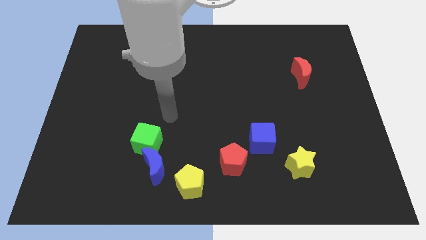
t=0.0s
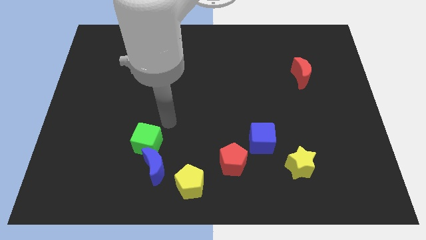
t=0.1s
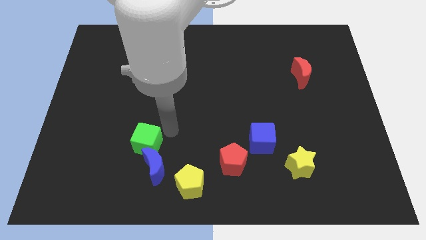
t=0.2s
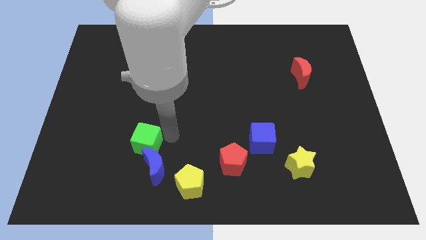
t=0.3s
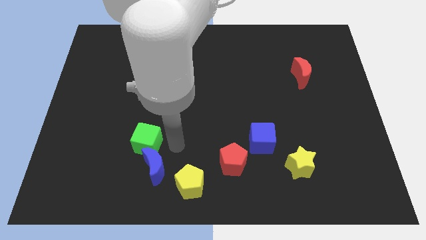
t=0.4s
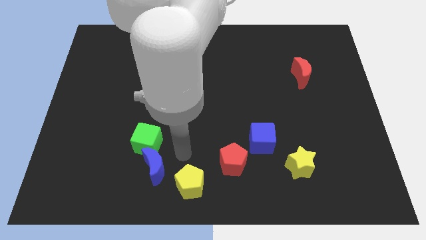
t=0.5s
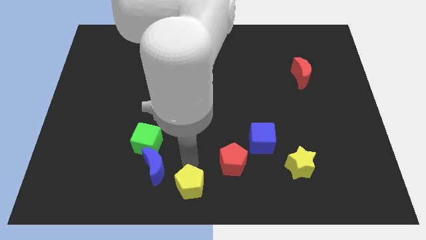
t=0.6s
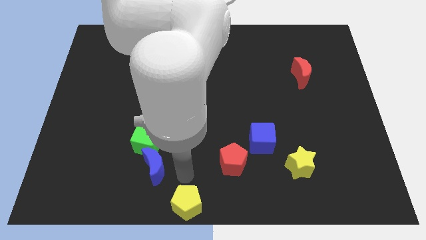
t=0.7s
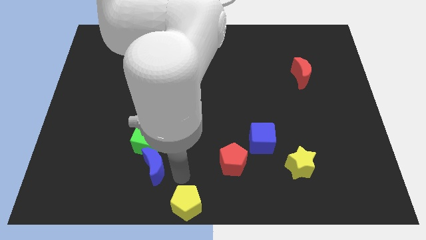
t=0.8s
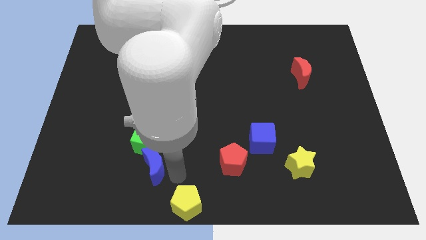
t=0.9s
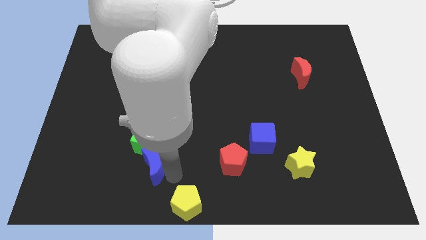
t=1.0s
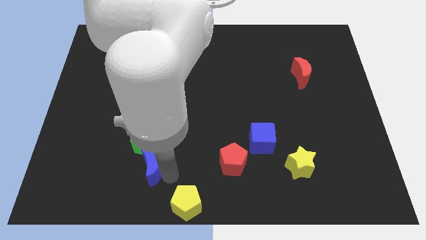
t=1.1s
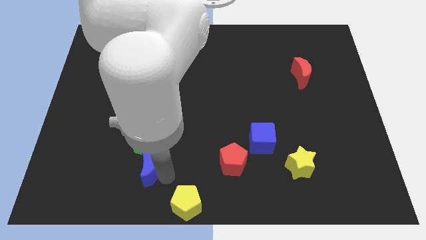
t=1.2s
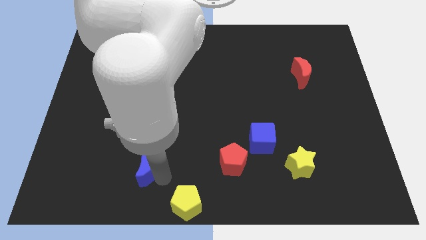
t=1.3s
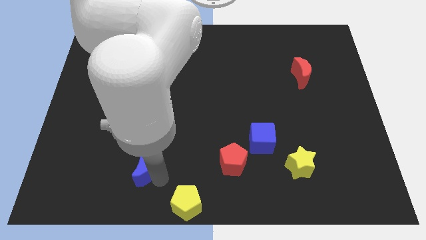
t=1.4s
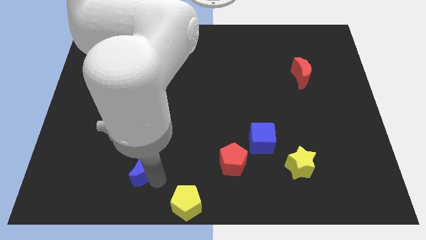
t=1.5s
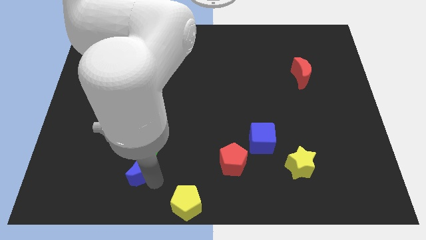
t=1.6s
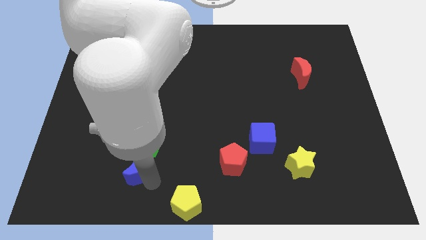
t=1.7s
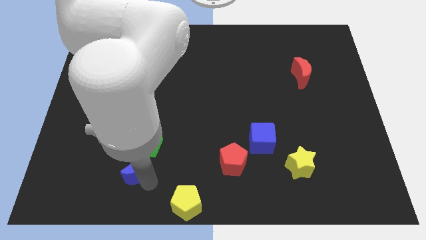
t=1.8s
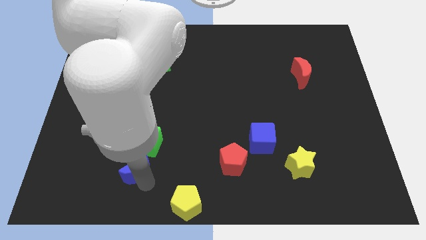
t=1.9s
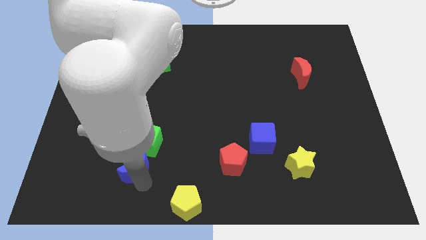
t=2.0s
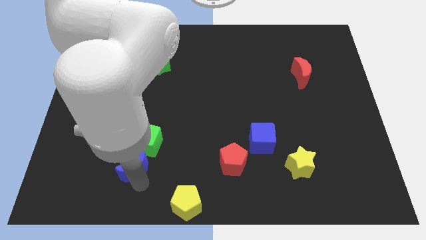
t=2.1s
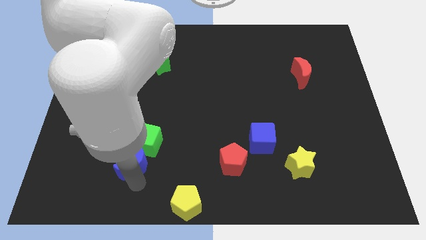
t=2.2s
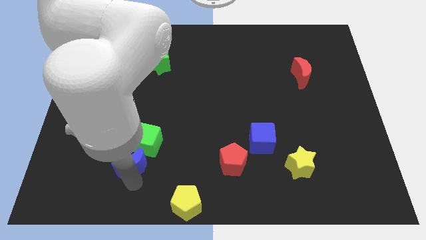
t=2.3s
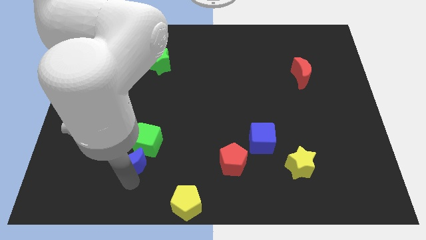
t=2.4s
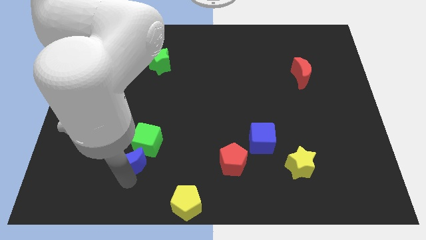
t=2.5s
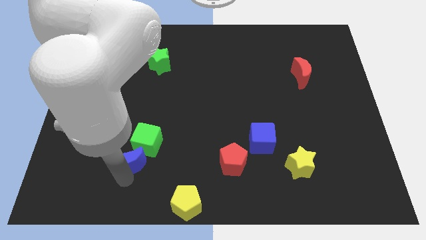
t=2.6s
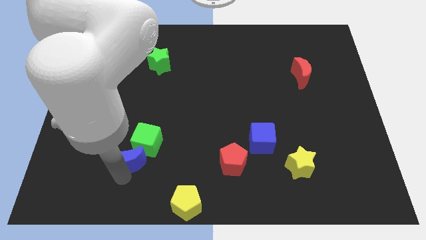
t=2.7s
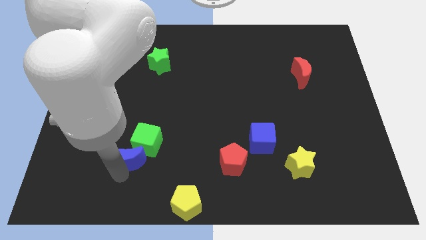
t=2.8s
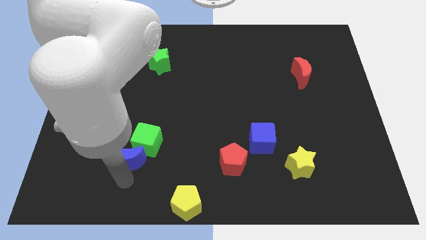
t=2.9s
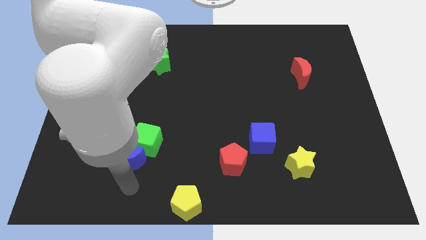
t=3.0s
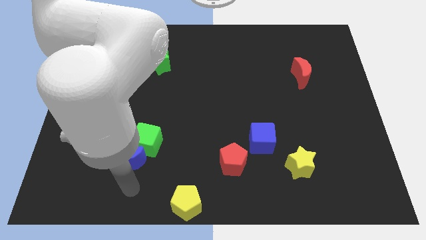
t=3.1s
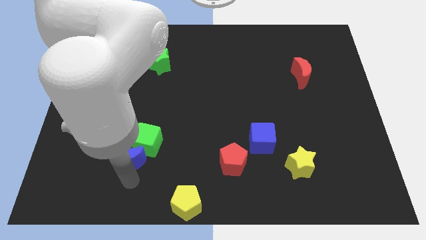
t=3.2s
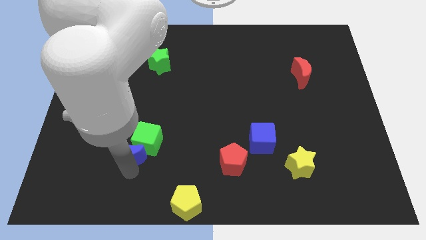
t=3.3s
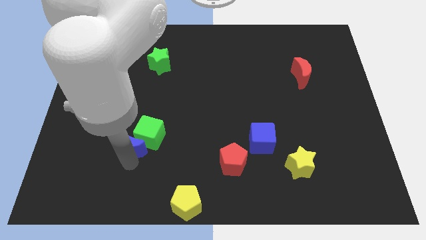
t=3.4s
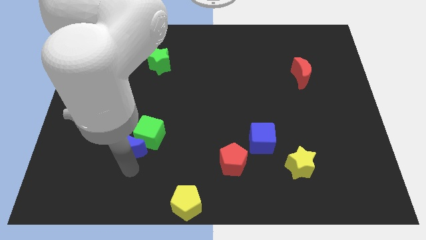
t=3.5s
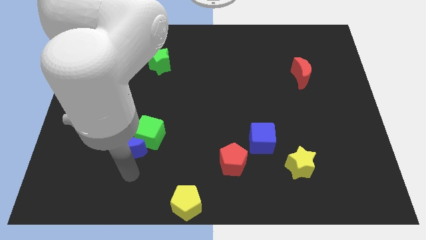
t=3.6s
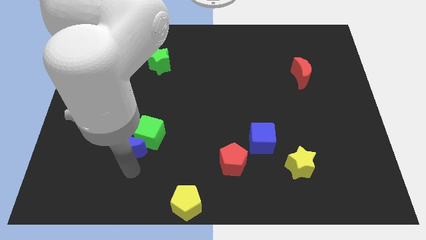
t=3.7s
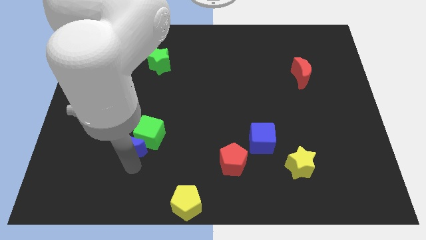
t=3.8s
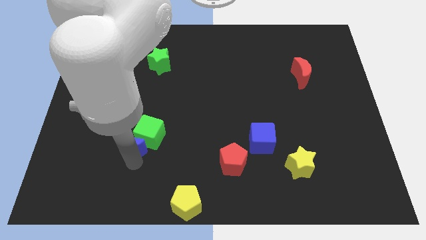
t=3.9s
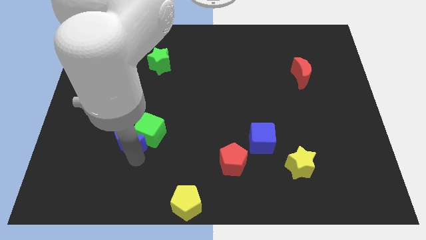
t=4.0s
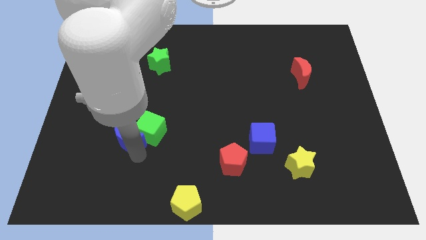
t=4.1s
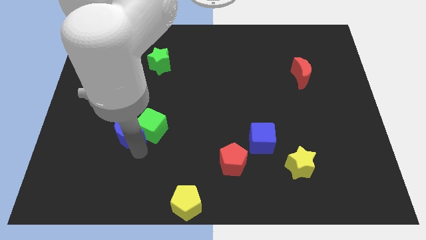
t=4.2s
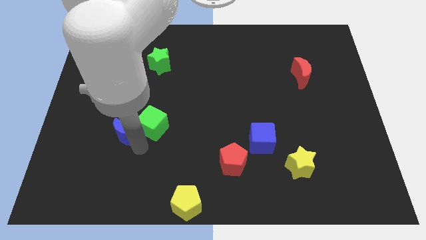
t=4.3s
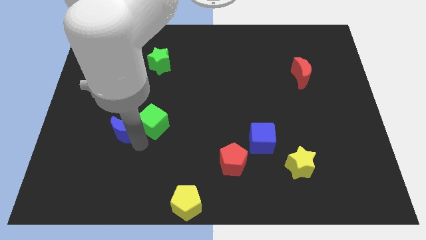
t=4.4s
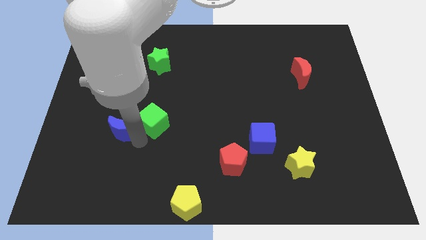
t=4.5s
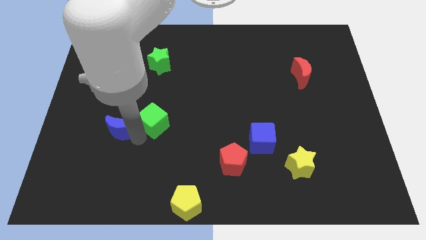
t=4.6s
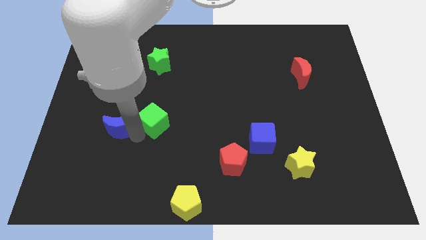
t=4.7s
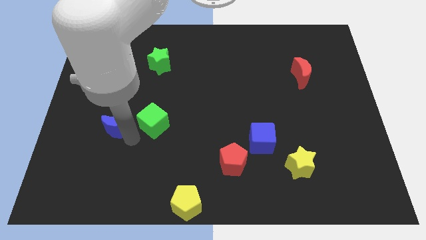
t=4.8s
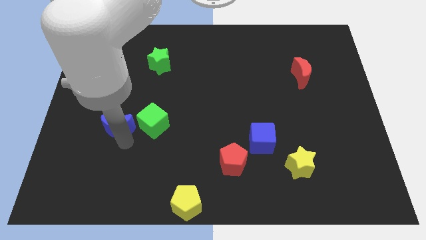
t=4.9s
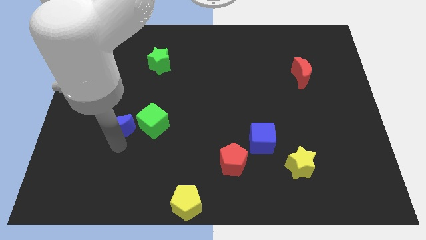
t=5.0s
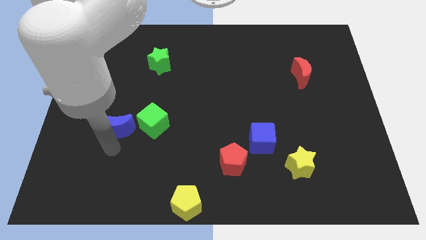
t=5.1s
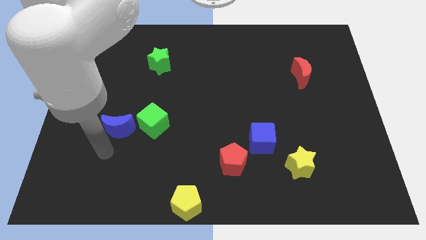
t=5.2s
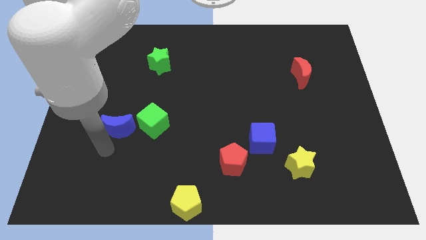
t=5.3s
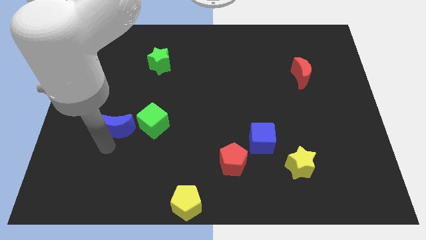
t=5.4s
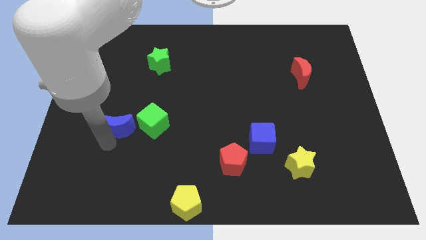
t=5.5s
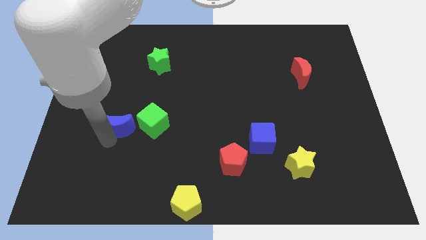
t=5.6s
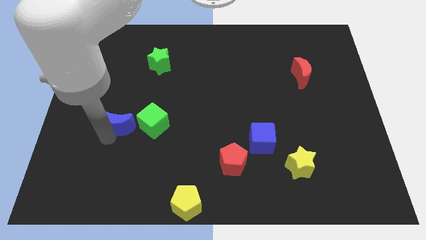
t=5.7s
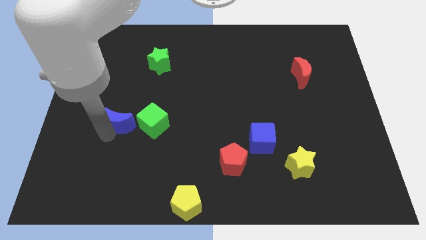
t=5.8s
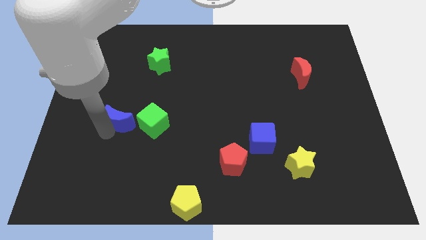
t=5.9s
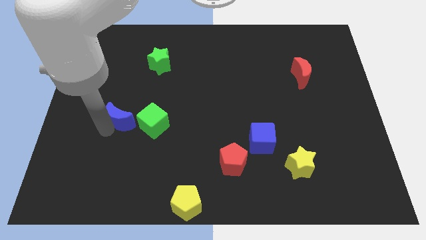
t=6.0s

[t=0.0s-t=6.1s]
slide the blue moon diagonally up and to the left of the green cube

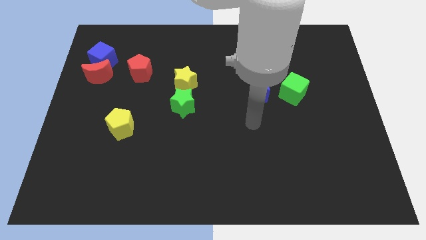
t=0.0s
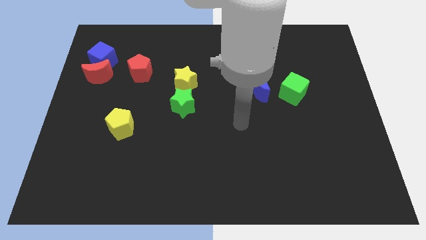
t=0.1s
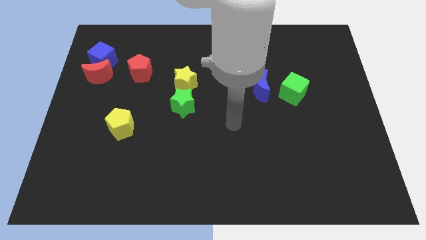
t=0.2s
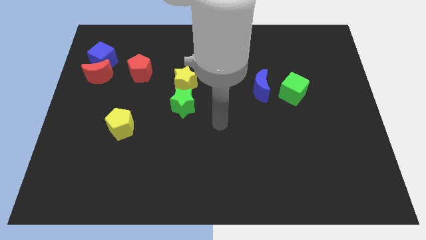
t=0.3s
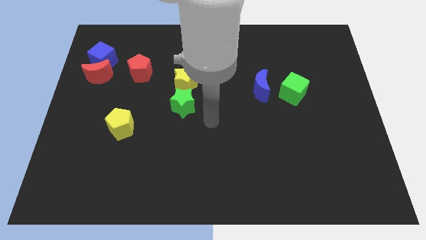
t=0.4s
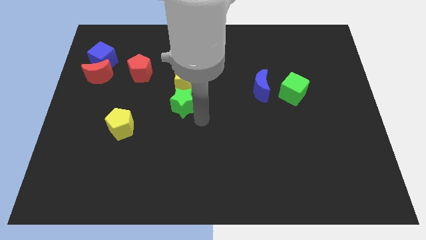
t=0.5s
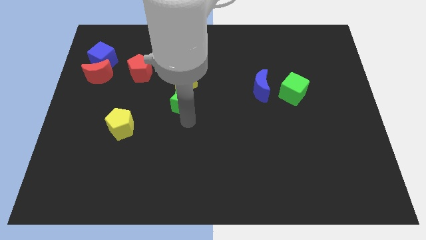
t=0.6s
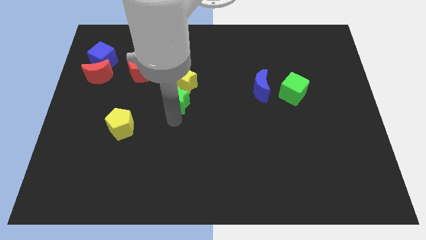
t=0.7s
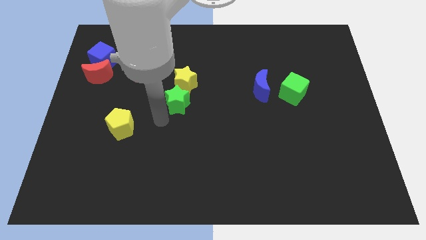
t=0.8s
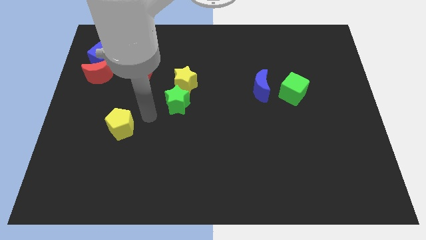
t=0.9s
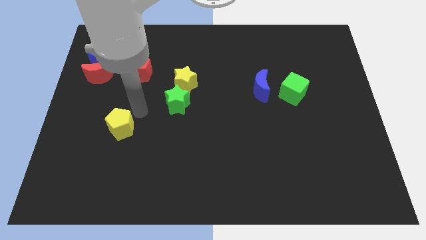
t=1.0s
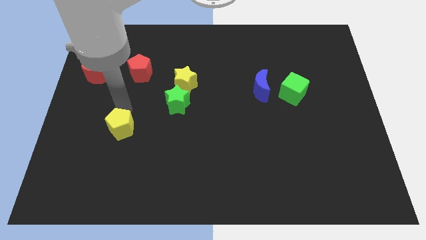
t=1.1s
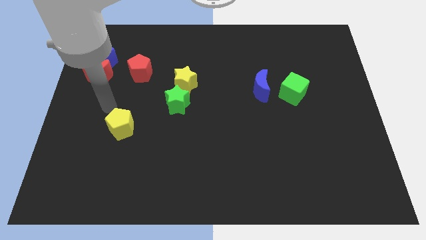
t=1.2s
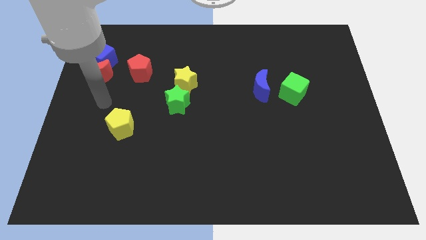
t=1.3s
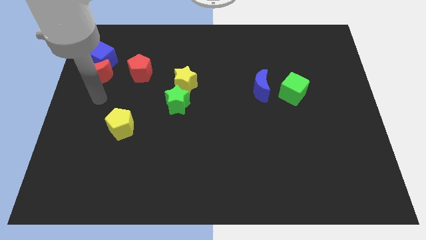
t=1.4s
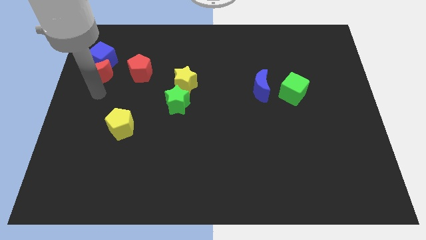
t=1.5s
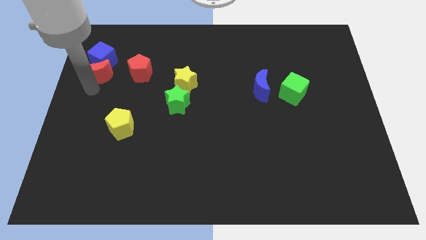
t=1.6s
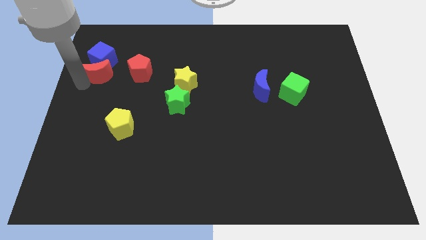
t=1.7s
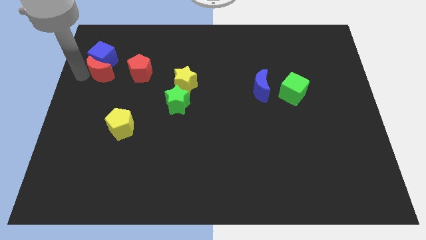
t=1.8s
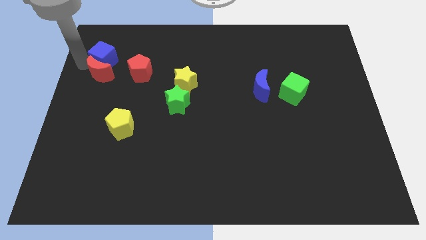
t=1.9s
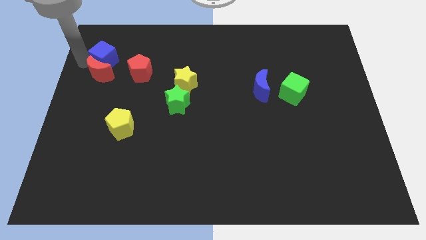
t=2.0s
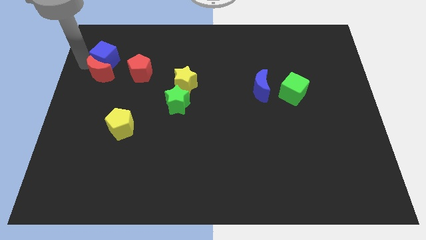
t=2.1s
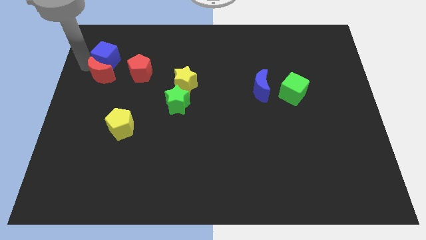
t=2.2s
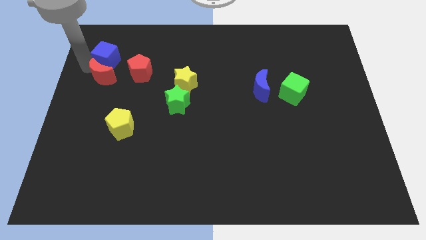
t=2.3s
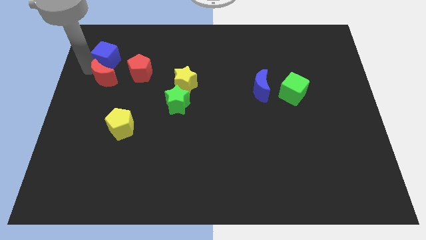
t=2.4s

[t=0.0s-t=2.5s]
push the red moon to the bottom left of the red pentagon
